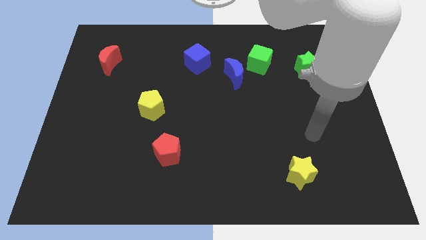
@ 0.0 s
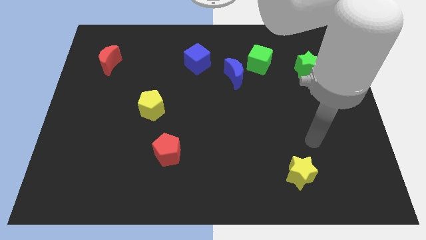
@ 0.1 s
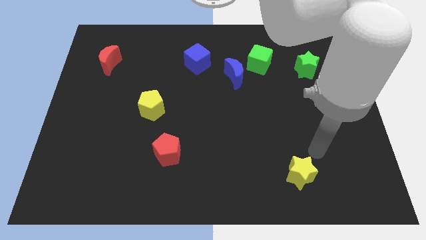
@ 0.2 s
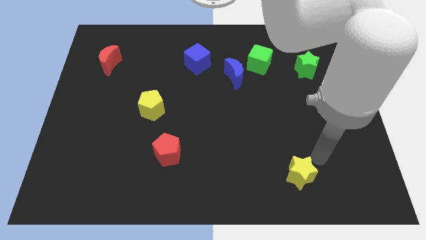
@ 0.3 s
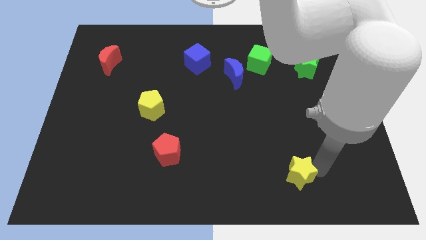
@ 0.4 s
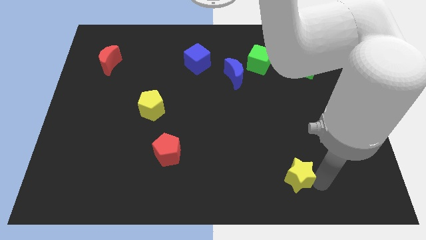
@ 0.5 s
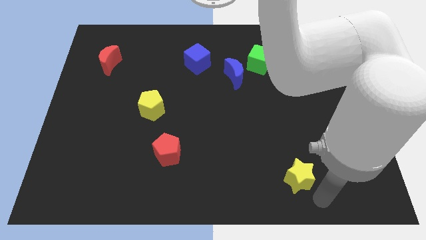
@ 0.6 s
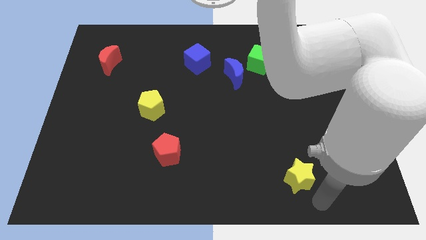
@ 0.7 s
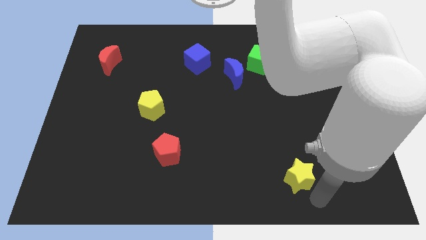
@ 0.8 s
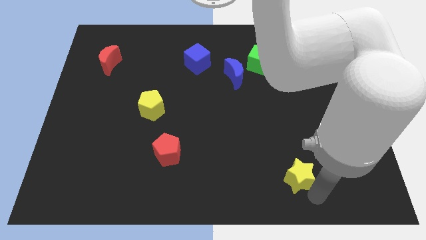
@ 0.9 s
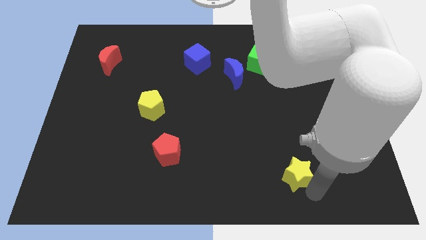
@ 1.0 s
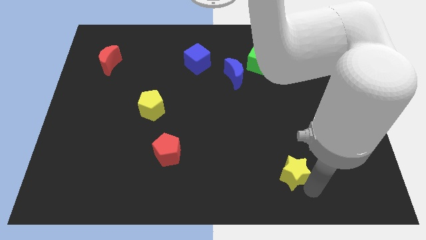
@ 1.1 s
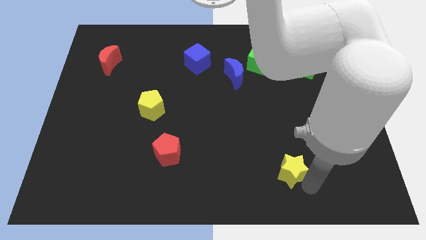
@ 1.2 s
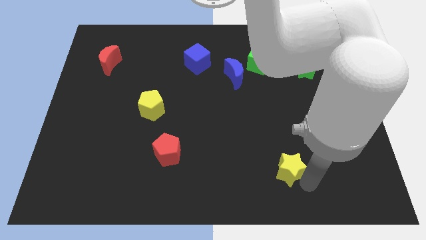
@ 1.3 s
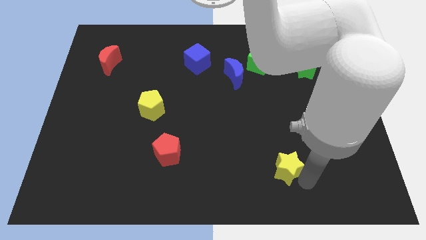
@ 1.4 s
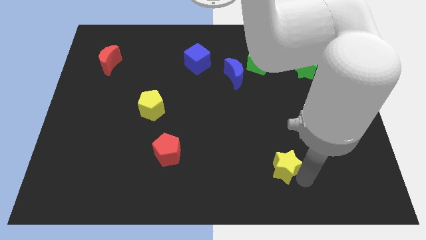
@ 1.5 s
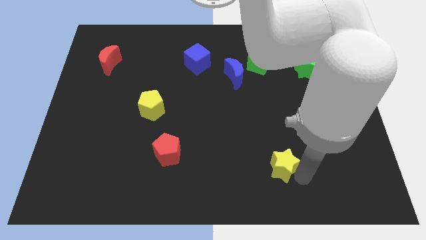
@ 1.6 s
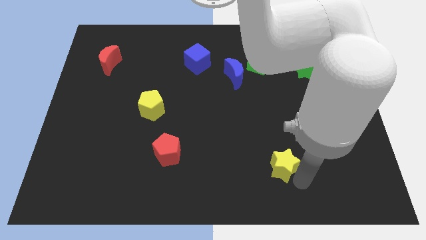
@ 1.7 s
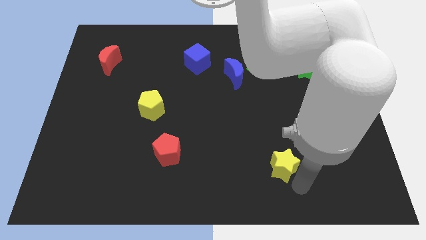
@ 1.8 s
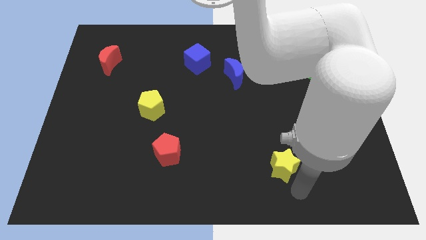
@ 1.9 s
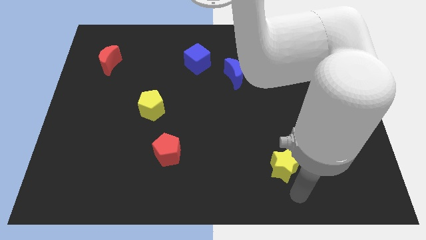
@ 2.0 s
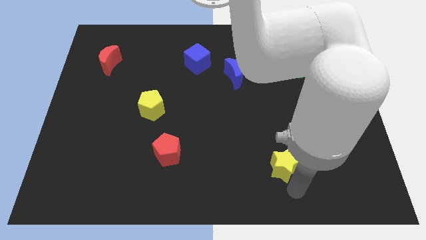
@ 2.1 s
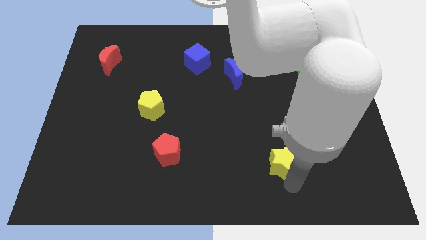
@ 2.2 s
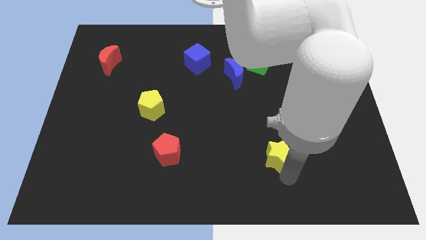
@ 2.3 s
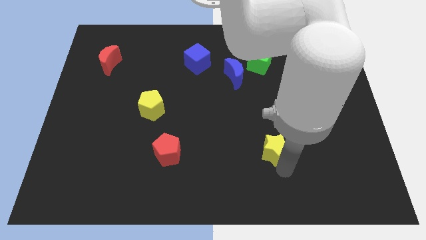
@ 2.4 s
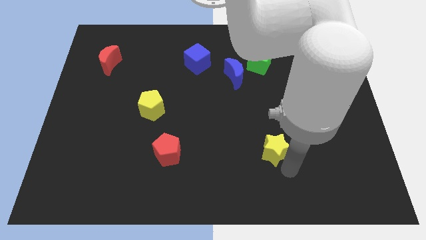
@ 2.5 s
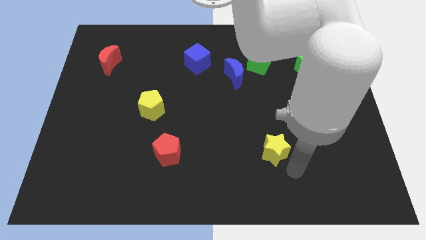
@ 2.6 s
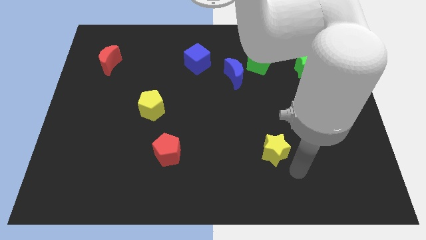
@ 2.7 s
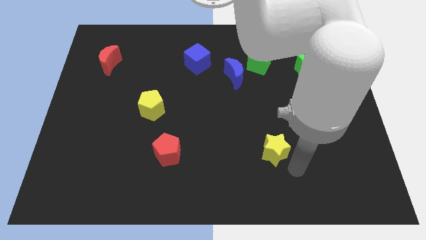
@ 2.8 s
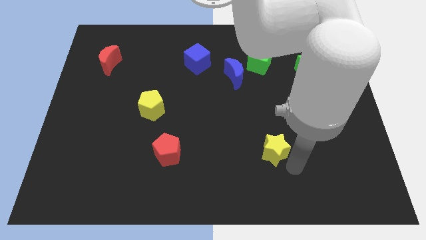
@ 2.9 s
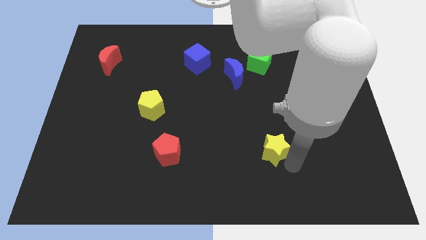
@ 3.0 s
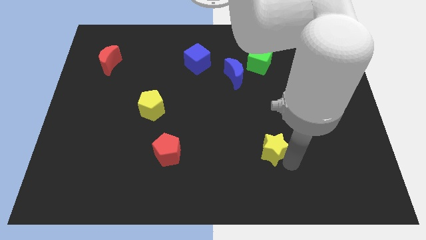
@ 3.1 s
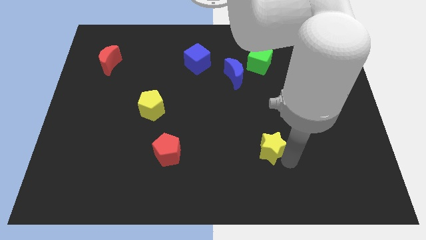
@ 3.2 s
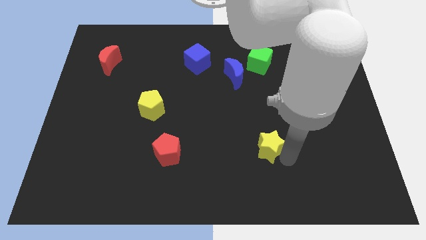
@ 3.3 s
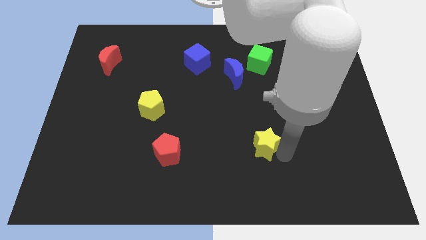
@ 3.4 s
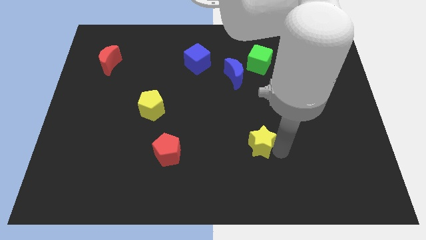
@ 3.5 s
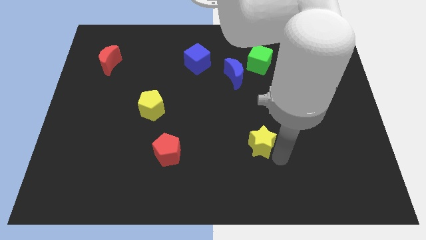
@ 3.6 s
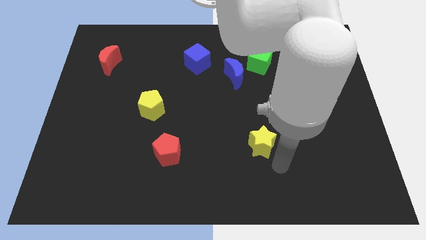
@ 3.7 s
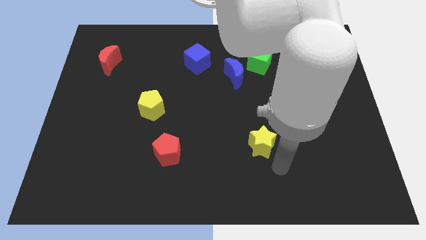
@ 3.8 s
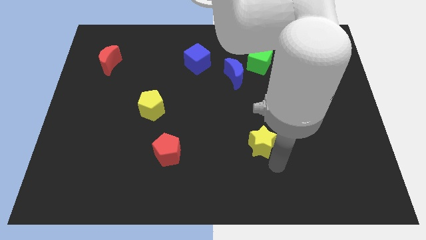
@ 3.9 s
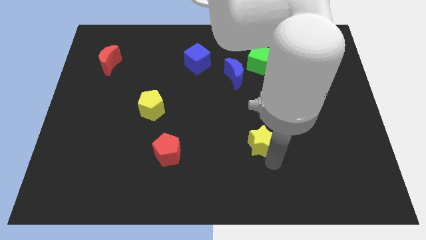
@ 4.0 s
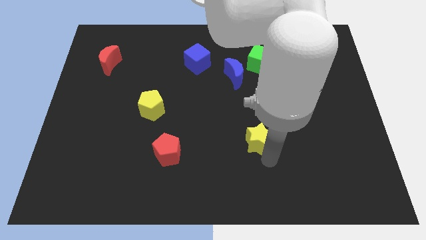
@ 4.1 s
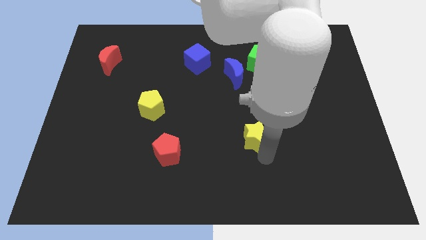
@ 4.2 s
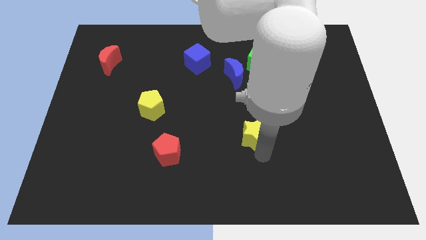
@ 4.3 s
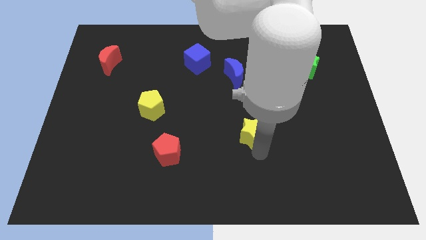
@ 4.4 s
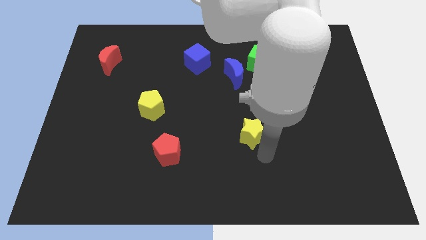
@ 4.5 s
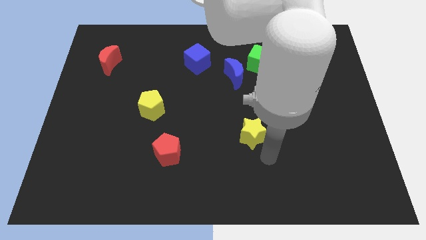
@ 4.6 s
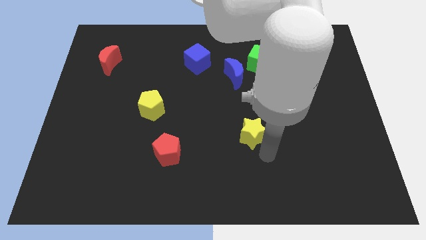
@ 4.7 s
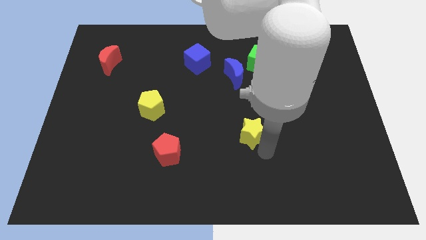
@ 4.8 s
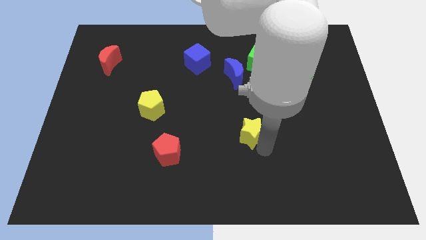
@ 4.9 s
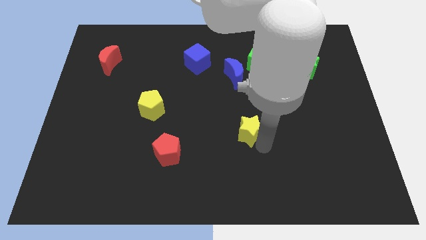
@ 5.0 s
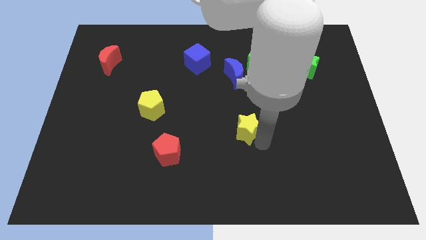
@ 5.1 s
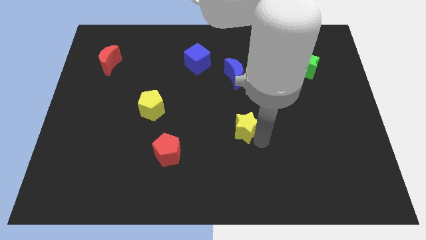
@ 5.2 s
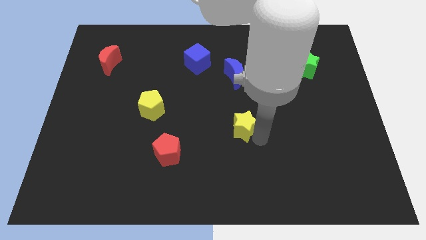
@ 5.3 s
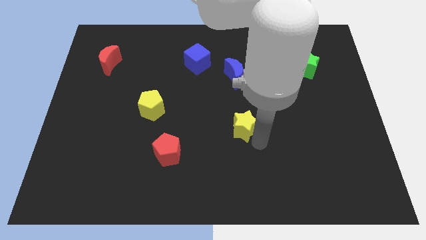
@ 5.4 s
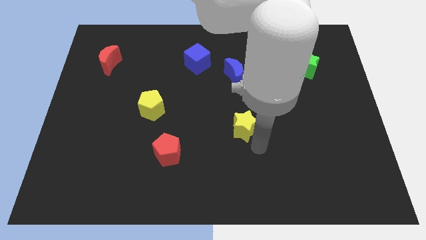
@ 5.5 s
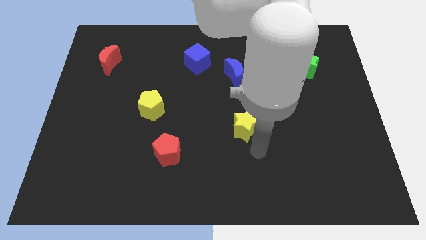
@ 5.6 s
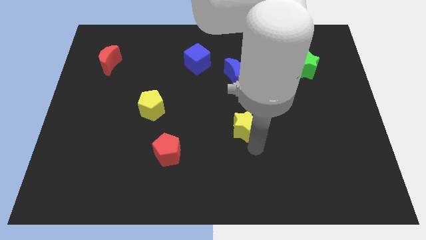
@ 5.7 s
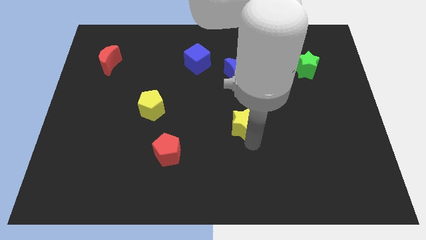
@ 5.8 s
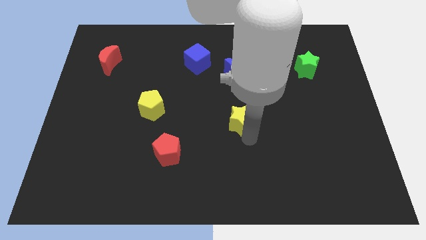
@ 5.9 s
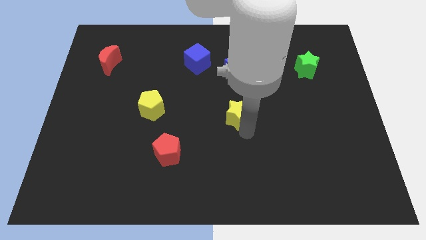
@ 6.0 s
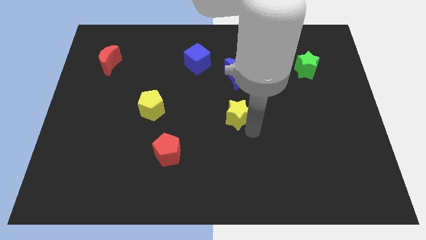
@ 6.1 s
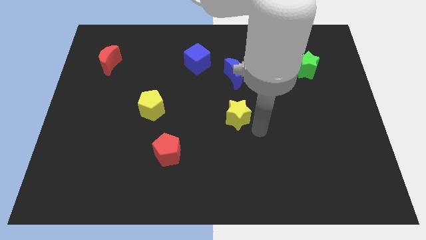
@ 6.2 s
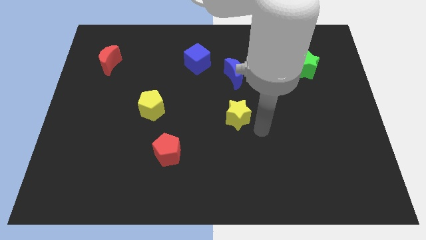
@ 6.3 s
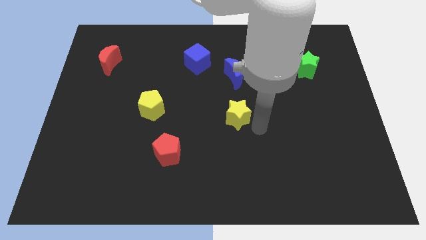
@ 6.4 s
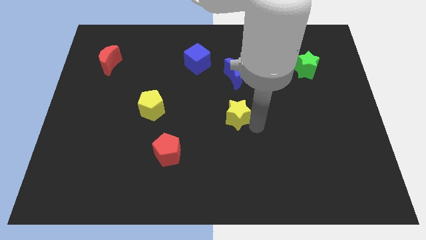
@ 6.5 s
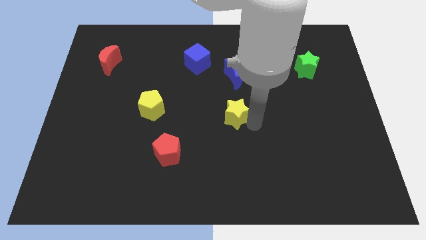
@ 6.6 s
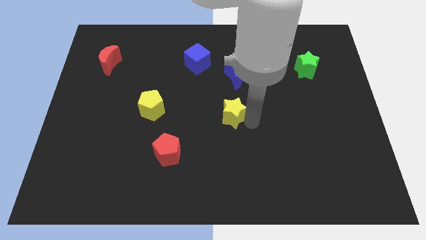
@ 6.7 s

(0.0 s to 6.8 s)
move the yellow star diagonally up and left

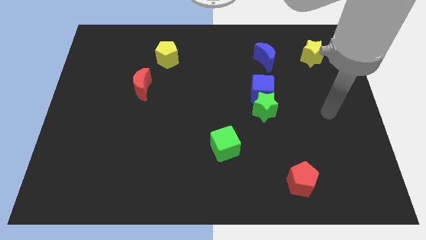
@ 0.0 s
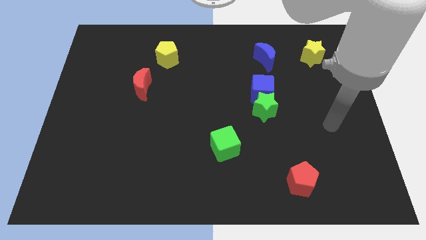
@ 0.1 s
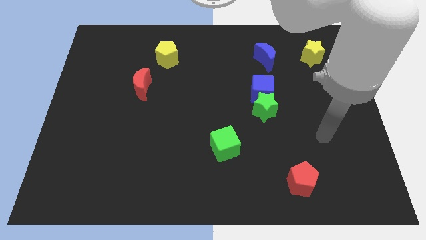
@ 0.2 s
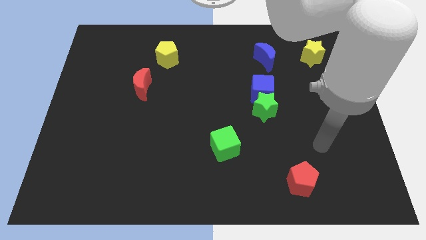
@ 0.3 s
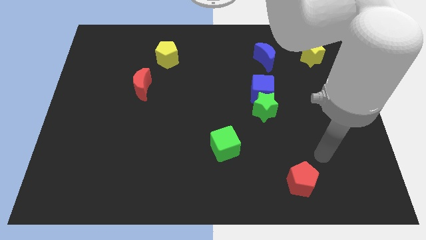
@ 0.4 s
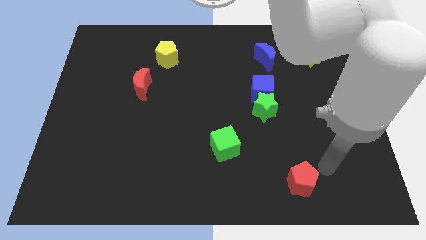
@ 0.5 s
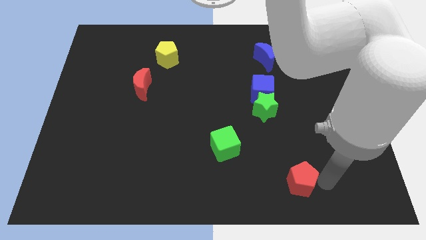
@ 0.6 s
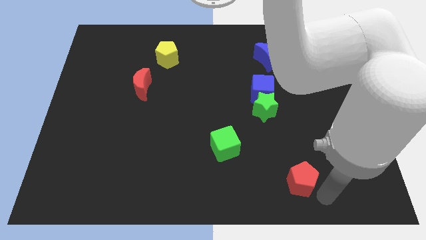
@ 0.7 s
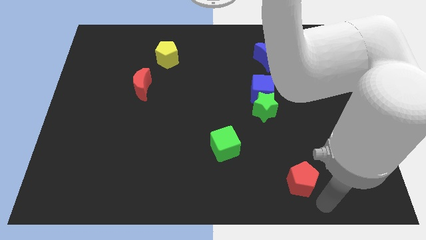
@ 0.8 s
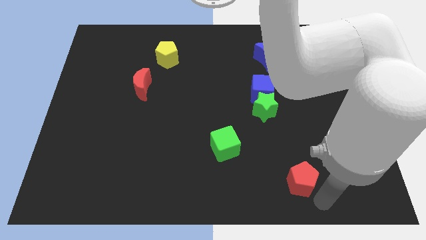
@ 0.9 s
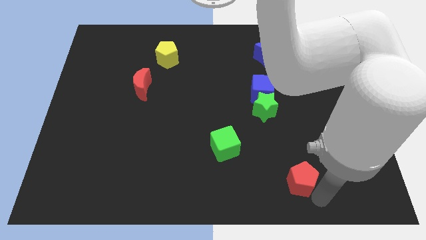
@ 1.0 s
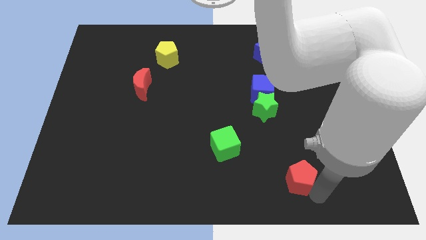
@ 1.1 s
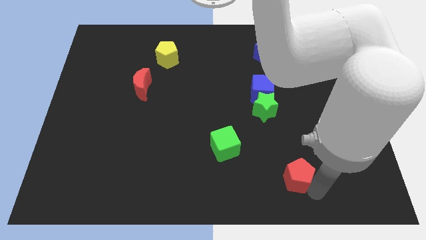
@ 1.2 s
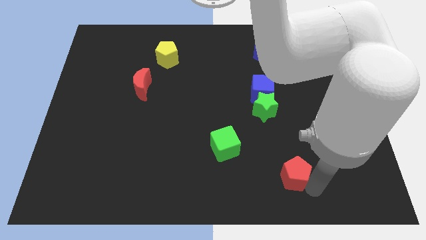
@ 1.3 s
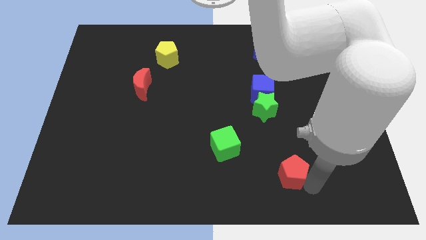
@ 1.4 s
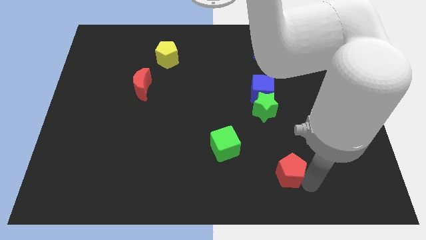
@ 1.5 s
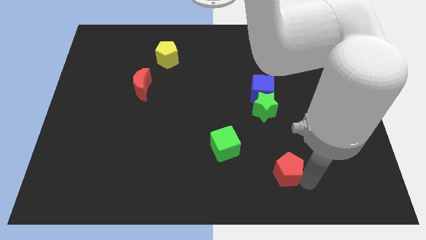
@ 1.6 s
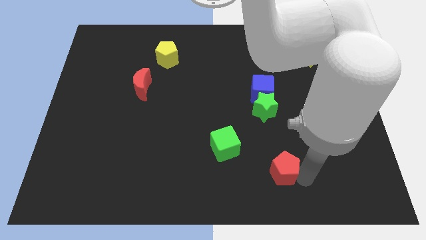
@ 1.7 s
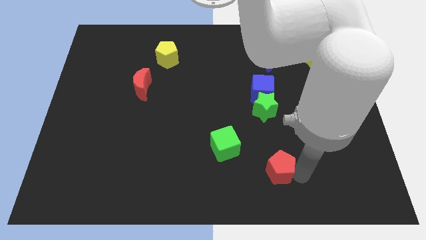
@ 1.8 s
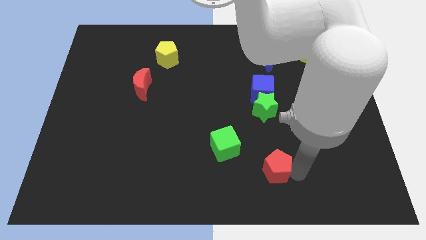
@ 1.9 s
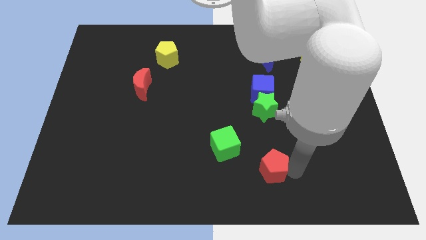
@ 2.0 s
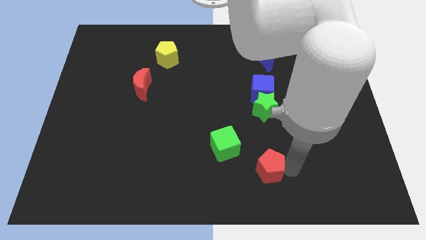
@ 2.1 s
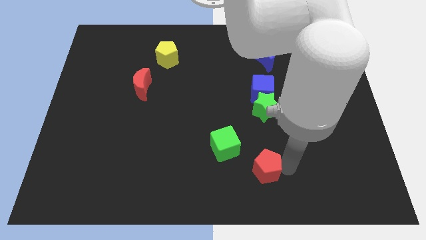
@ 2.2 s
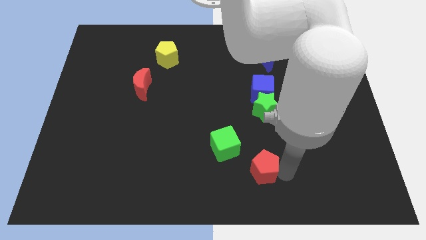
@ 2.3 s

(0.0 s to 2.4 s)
push the red pentagon upwards and to the left diagonally a little bit
